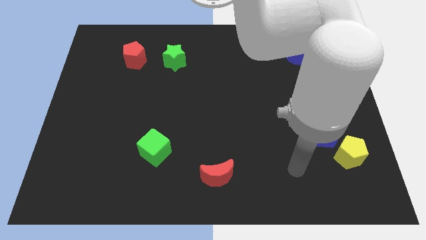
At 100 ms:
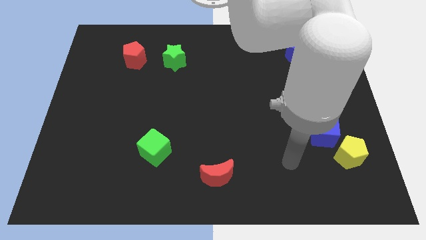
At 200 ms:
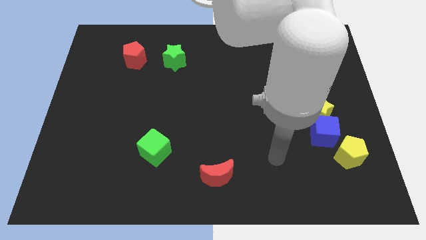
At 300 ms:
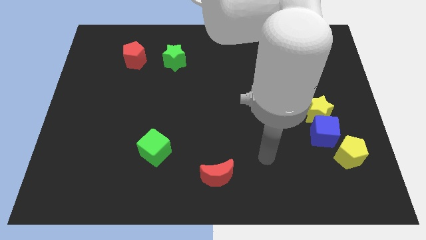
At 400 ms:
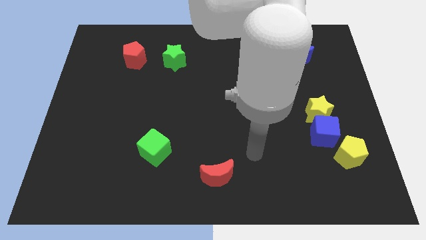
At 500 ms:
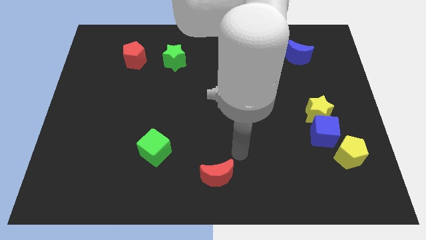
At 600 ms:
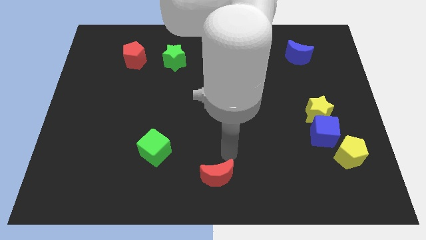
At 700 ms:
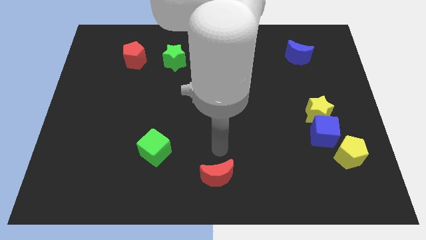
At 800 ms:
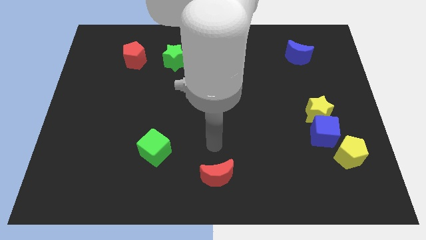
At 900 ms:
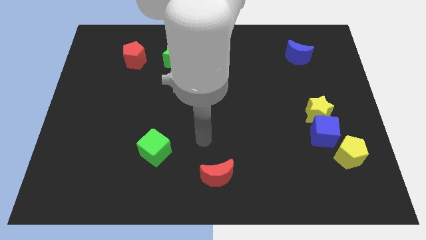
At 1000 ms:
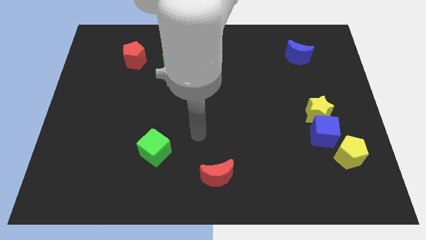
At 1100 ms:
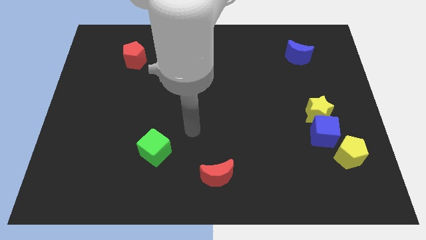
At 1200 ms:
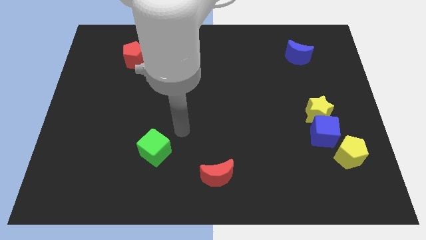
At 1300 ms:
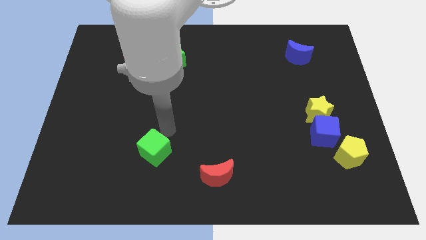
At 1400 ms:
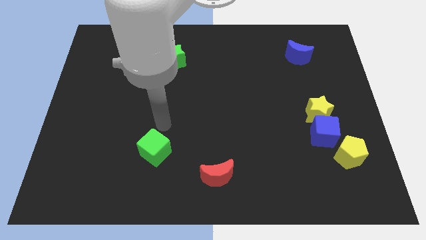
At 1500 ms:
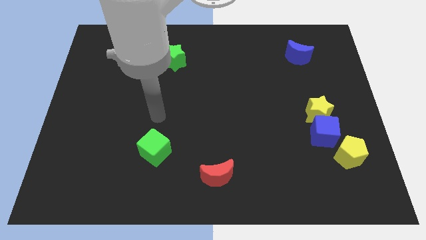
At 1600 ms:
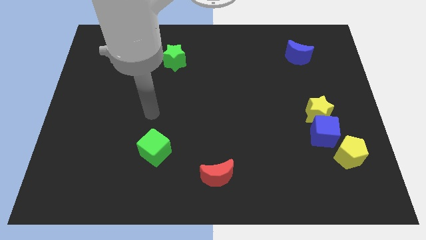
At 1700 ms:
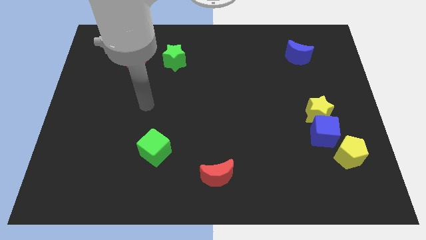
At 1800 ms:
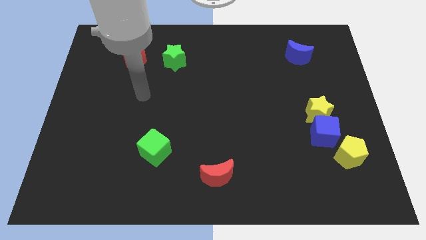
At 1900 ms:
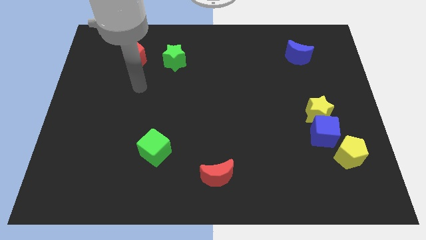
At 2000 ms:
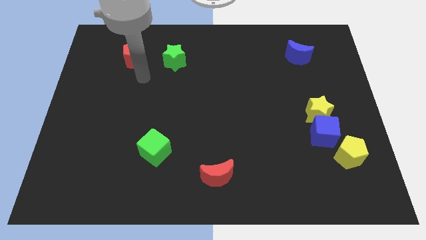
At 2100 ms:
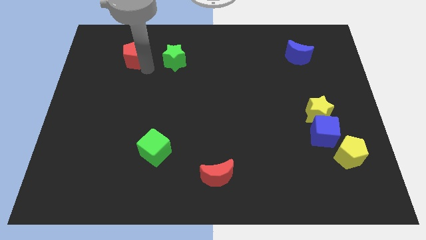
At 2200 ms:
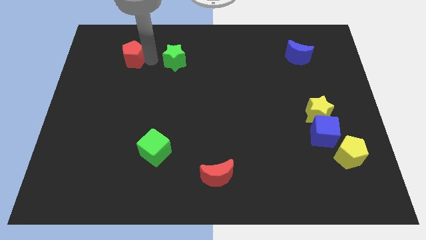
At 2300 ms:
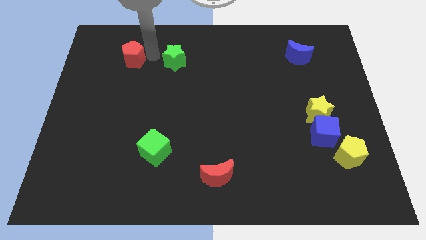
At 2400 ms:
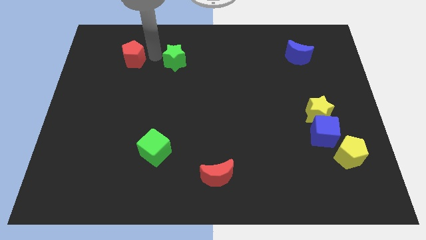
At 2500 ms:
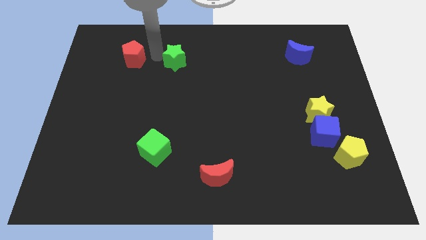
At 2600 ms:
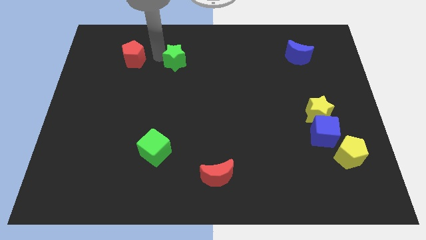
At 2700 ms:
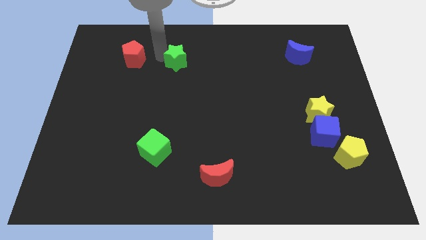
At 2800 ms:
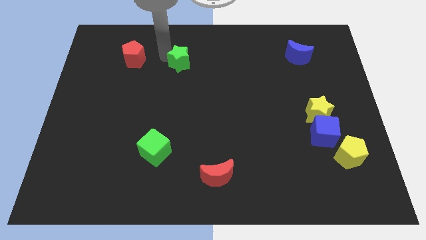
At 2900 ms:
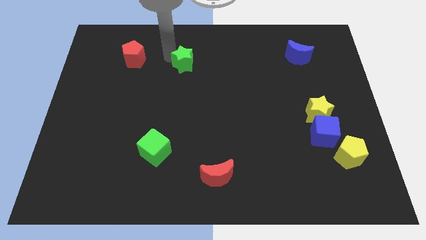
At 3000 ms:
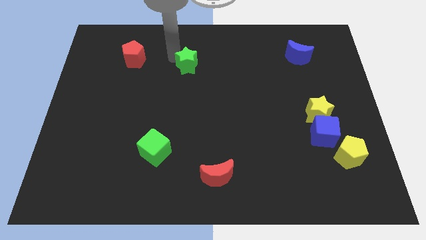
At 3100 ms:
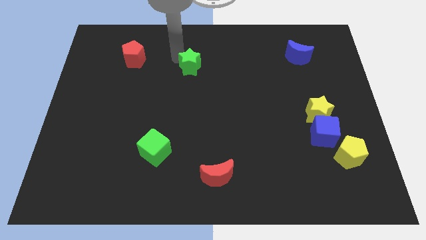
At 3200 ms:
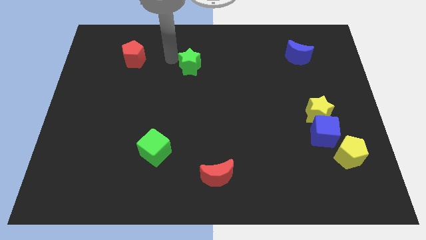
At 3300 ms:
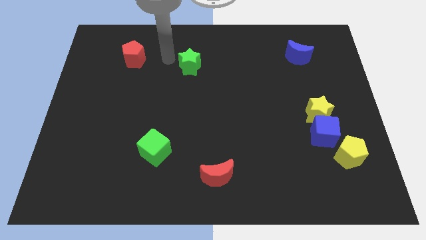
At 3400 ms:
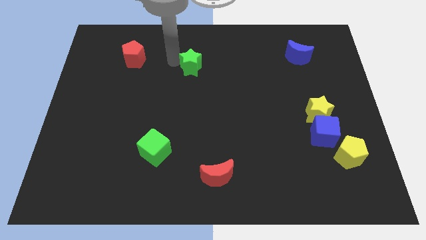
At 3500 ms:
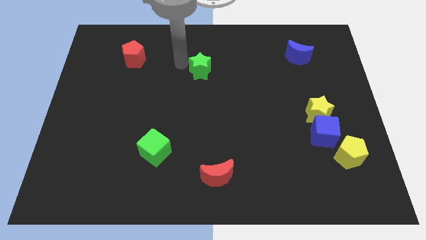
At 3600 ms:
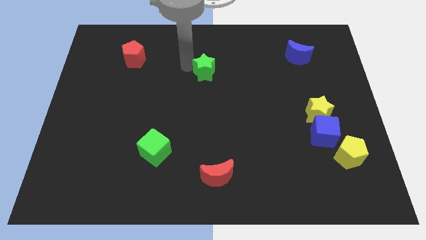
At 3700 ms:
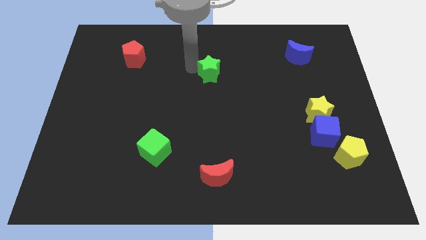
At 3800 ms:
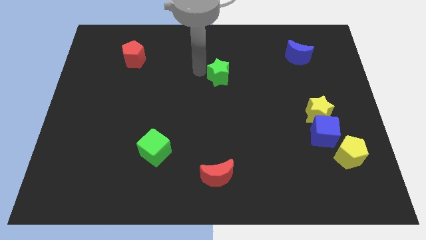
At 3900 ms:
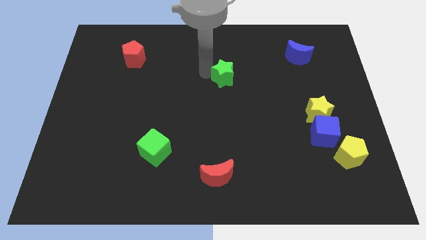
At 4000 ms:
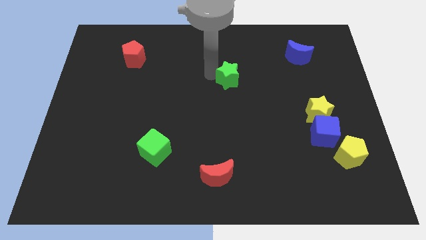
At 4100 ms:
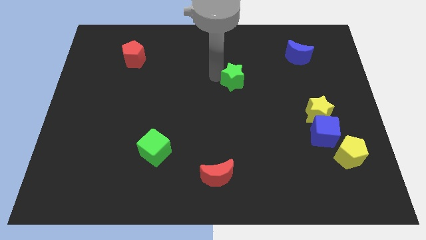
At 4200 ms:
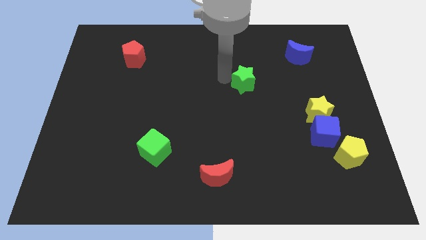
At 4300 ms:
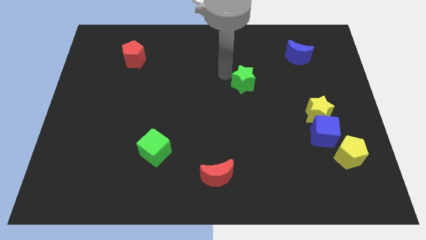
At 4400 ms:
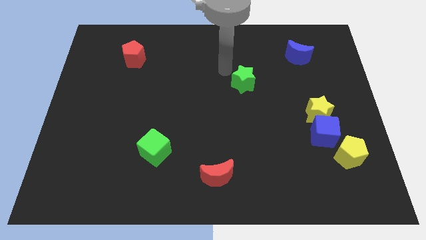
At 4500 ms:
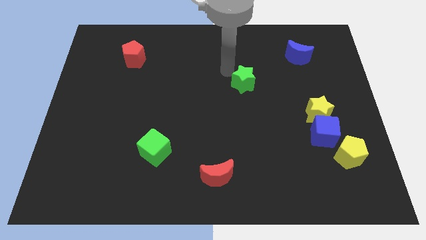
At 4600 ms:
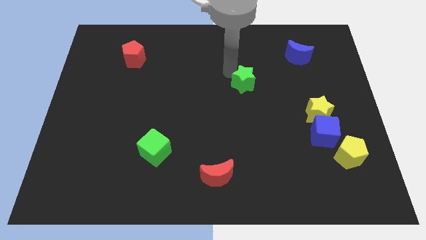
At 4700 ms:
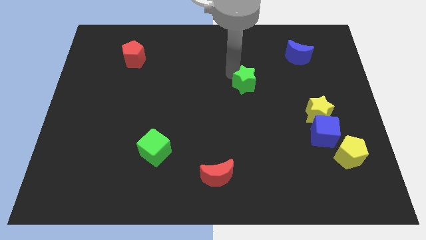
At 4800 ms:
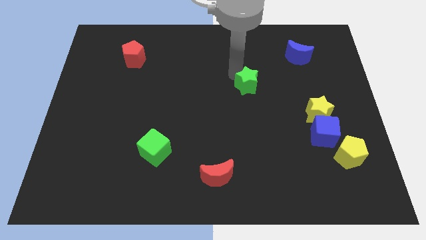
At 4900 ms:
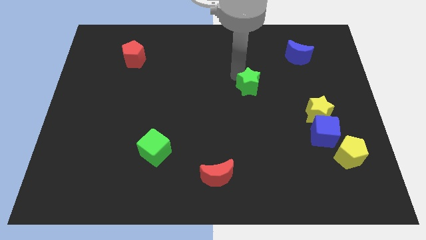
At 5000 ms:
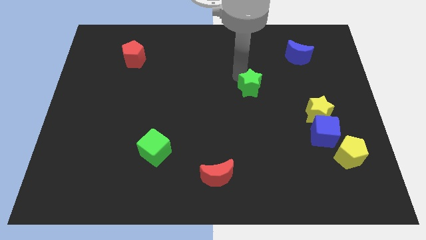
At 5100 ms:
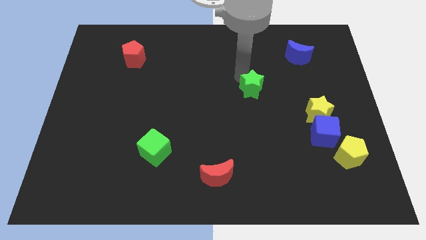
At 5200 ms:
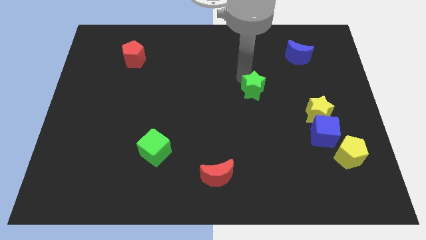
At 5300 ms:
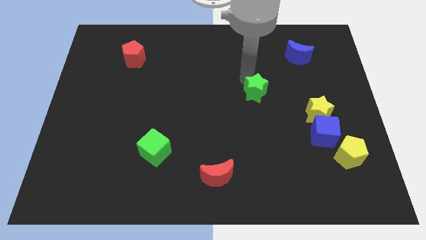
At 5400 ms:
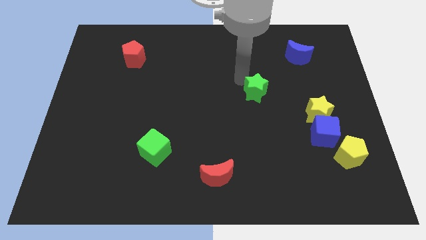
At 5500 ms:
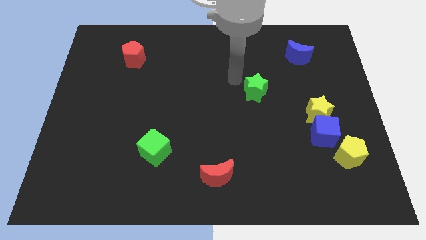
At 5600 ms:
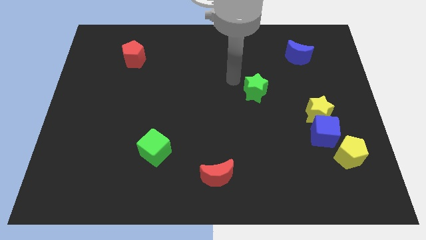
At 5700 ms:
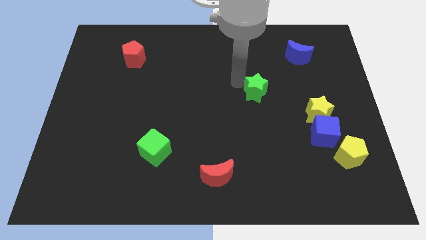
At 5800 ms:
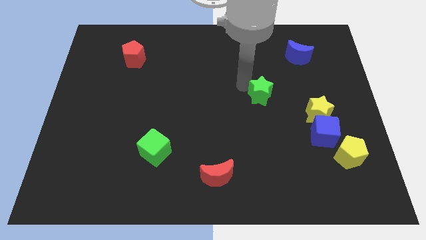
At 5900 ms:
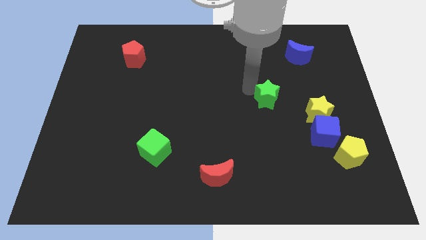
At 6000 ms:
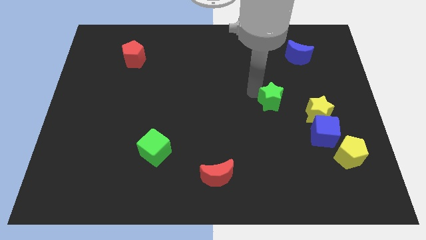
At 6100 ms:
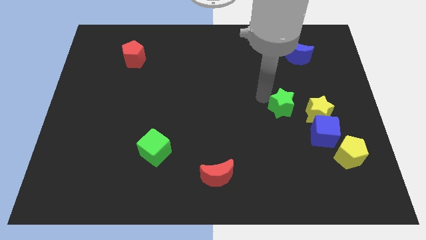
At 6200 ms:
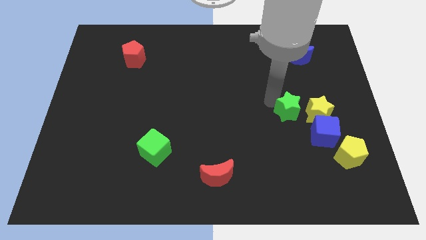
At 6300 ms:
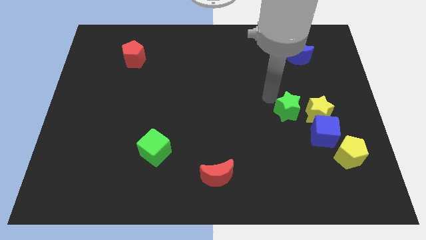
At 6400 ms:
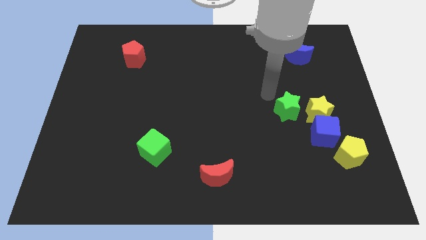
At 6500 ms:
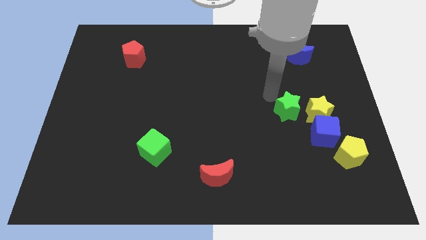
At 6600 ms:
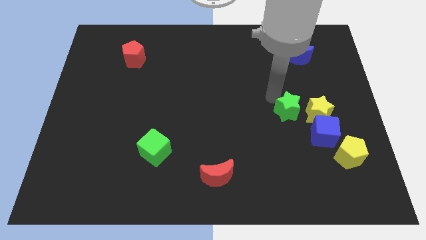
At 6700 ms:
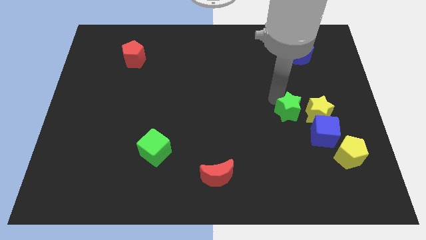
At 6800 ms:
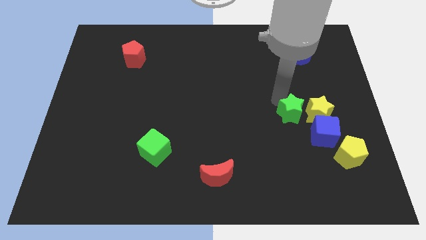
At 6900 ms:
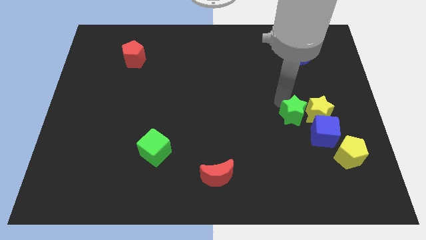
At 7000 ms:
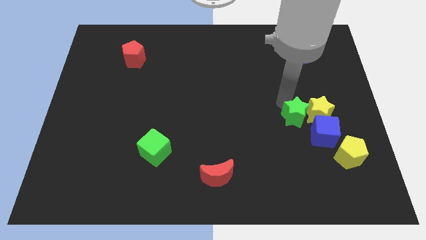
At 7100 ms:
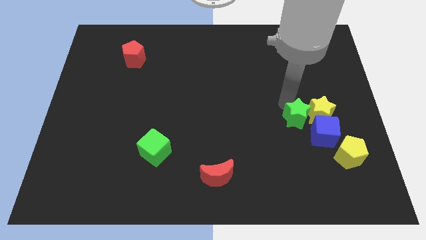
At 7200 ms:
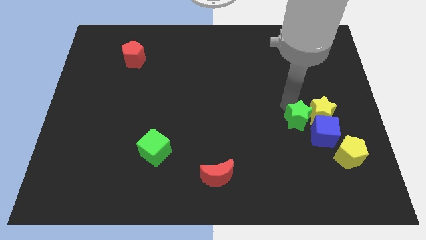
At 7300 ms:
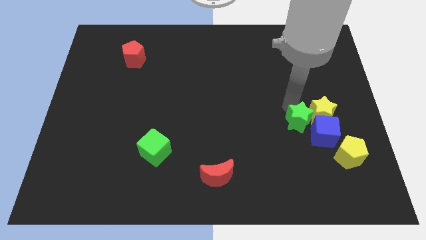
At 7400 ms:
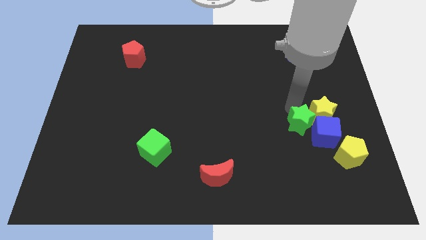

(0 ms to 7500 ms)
push the green star to the blue cube

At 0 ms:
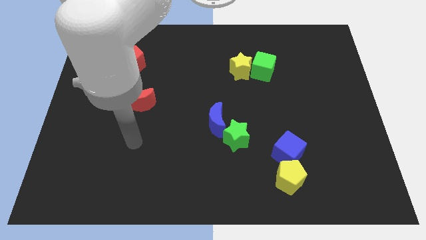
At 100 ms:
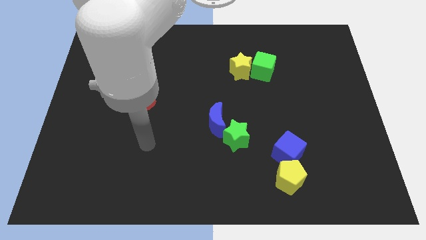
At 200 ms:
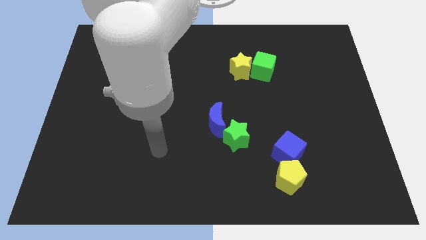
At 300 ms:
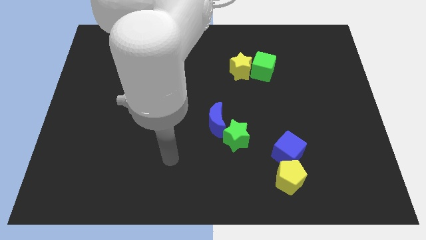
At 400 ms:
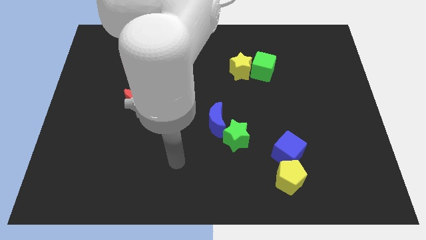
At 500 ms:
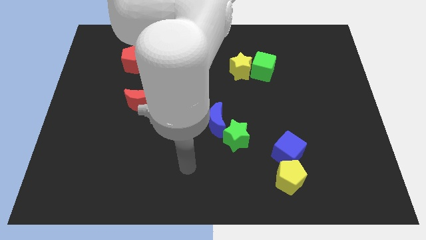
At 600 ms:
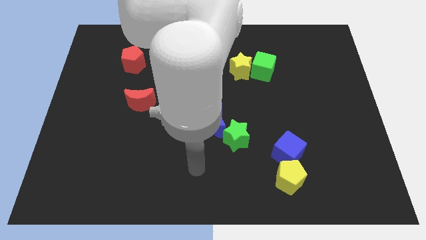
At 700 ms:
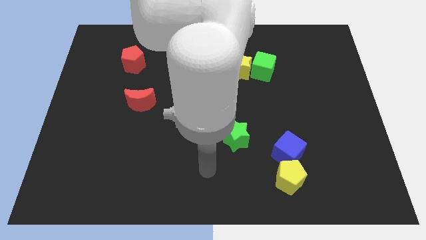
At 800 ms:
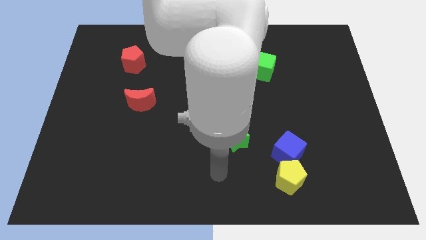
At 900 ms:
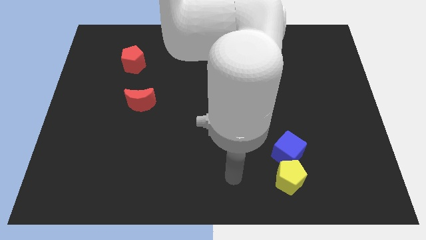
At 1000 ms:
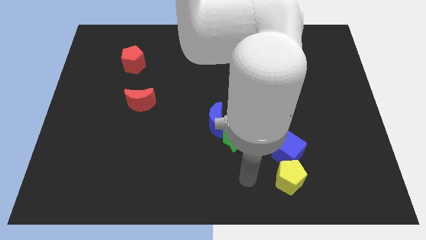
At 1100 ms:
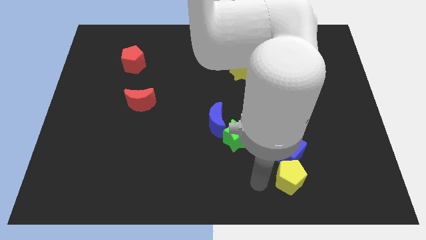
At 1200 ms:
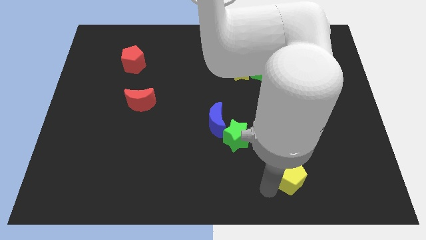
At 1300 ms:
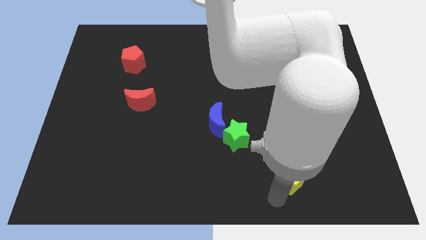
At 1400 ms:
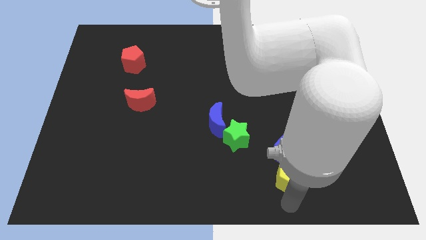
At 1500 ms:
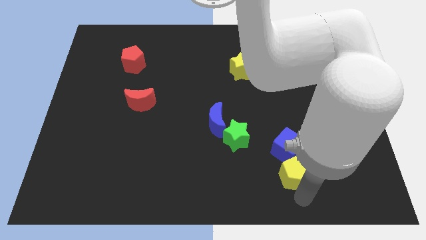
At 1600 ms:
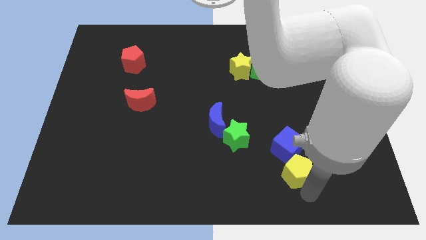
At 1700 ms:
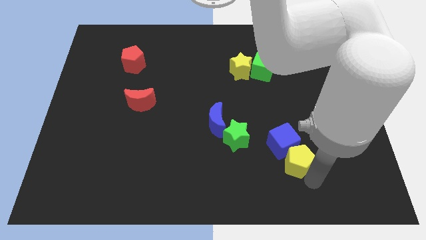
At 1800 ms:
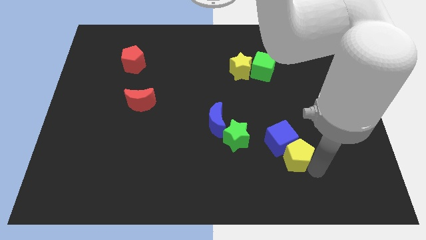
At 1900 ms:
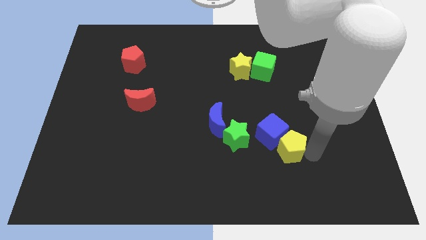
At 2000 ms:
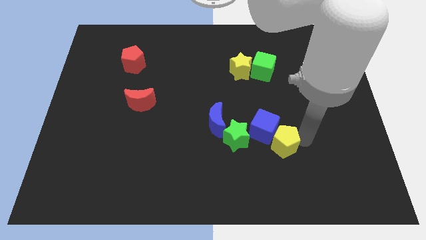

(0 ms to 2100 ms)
put the blue cube next to the green star
